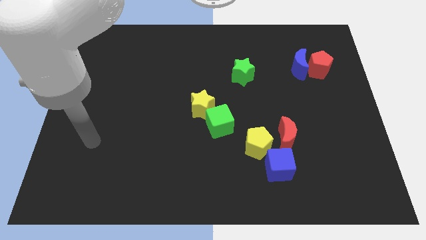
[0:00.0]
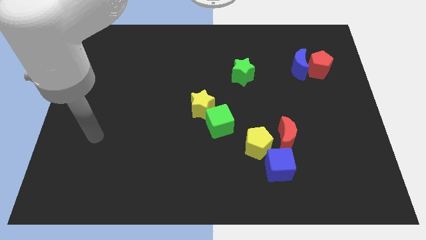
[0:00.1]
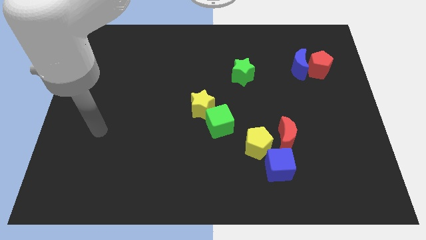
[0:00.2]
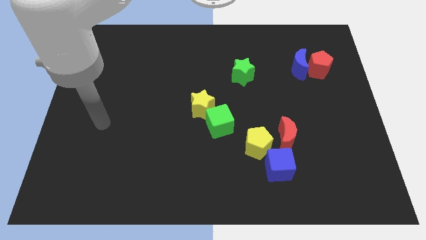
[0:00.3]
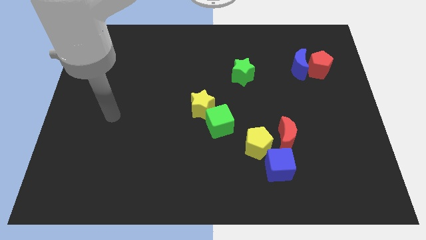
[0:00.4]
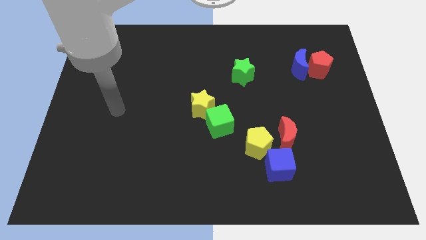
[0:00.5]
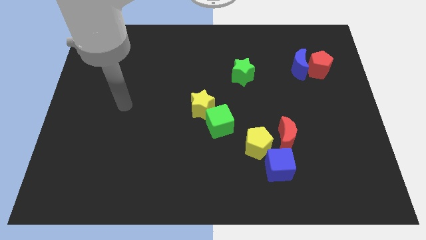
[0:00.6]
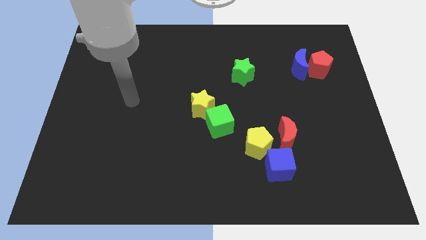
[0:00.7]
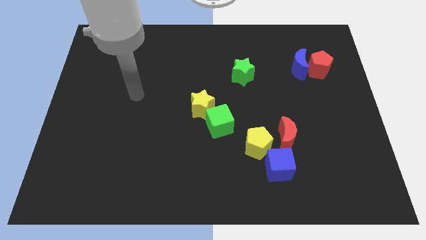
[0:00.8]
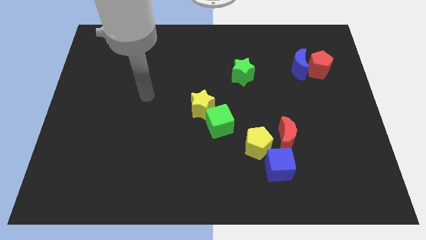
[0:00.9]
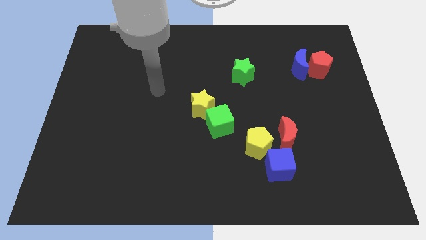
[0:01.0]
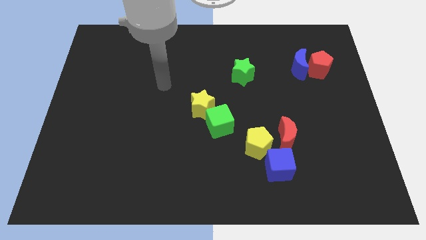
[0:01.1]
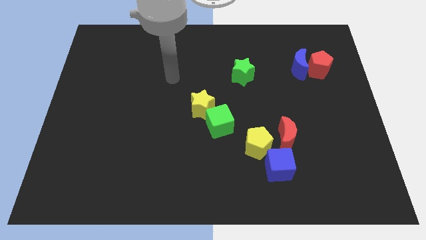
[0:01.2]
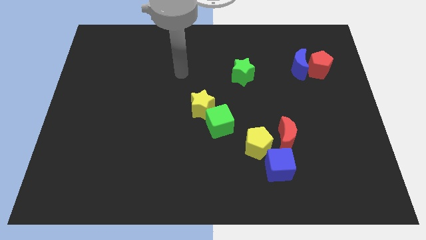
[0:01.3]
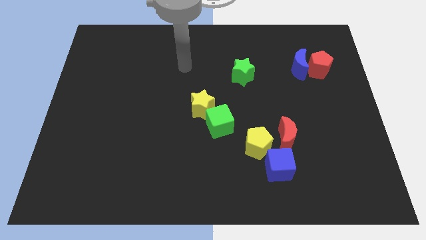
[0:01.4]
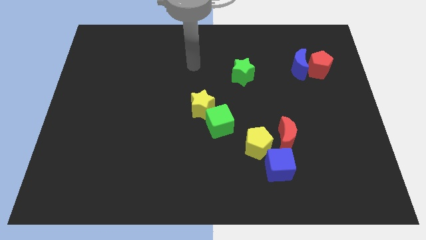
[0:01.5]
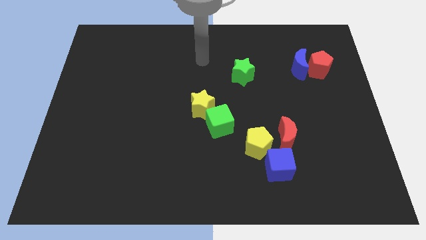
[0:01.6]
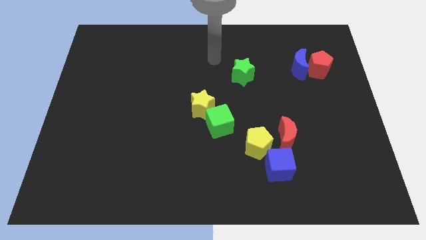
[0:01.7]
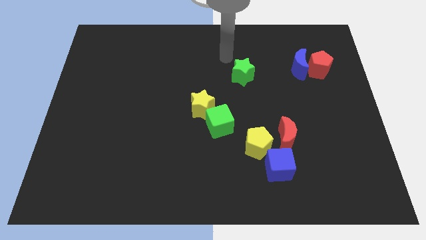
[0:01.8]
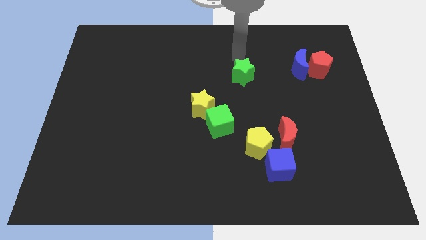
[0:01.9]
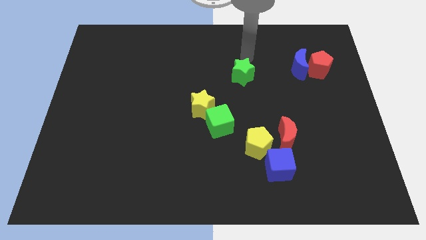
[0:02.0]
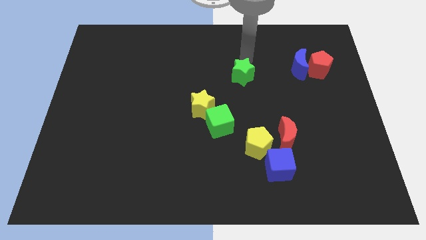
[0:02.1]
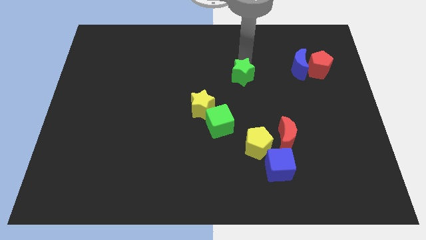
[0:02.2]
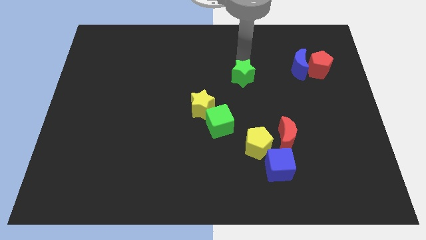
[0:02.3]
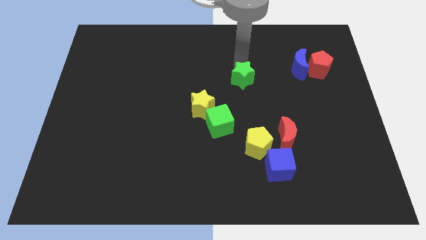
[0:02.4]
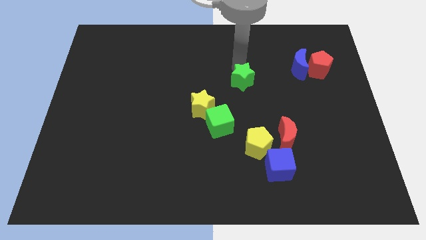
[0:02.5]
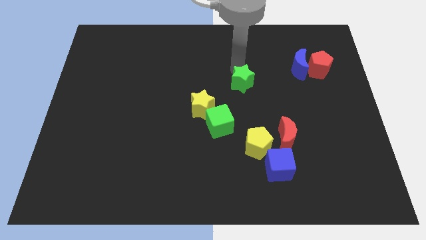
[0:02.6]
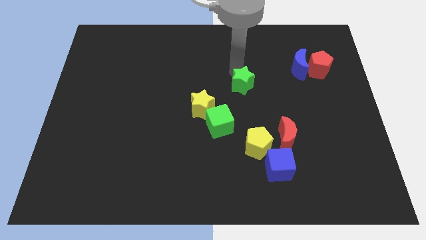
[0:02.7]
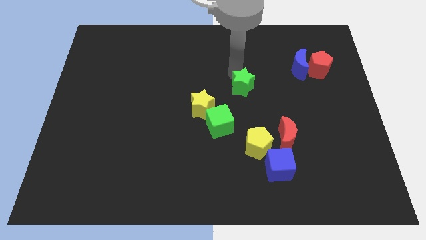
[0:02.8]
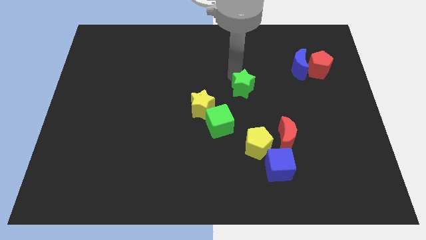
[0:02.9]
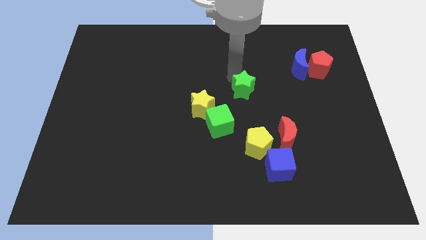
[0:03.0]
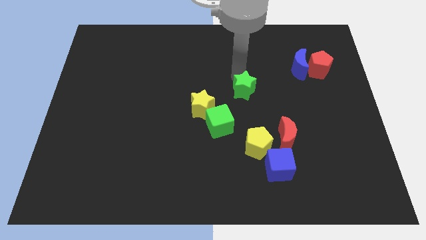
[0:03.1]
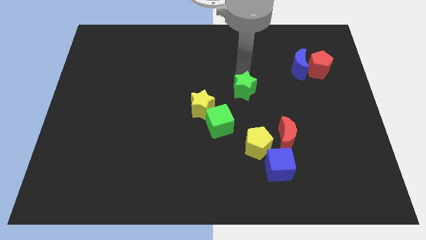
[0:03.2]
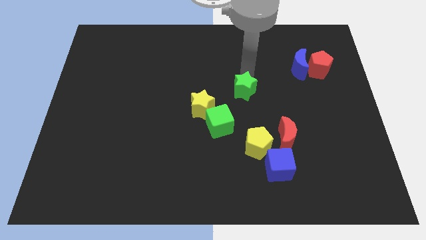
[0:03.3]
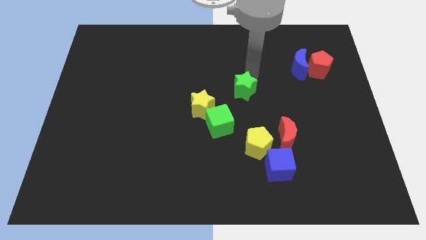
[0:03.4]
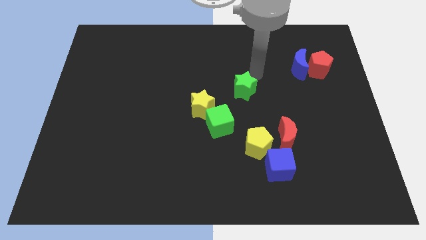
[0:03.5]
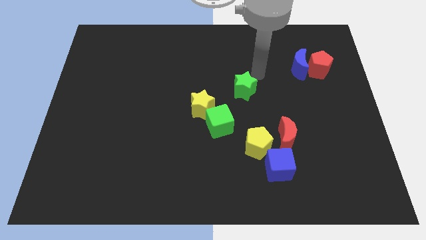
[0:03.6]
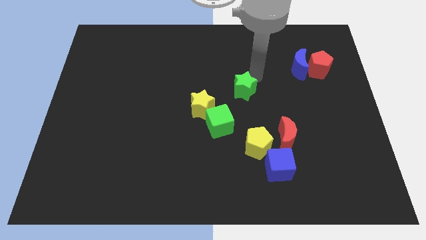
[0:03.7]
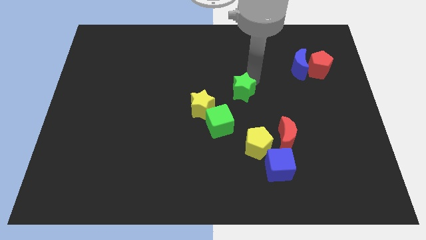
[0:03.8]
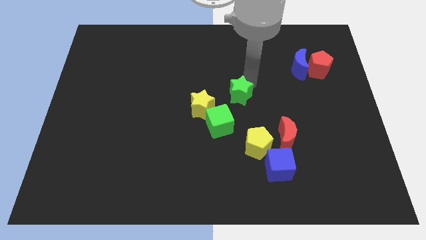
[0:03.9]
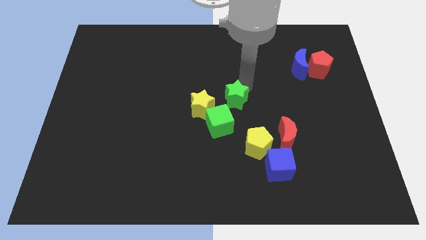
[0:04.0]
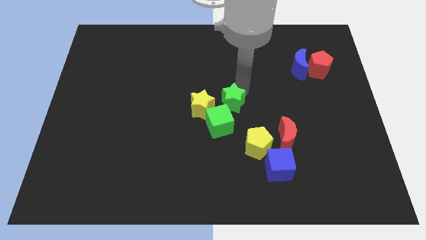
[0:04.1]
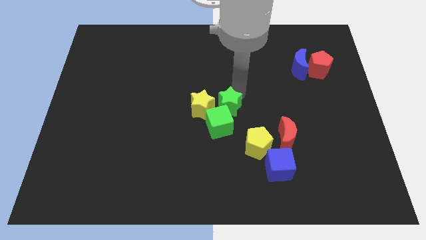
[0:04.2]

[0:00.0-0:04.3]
put the green star towards the green cube

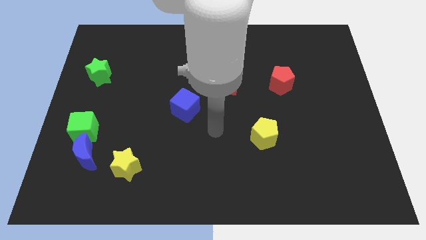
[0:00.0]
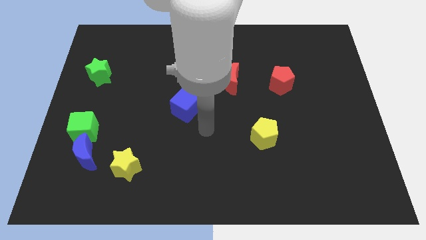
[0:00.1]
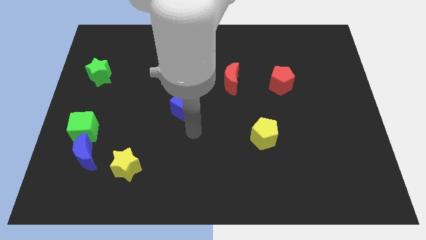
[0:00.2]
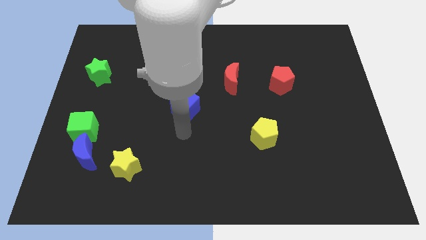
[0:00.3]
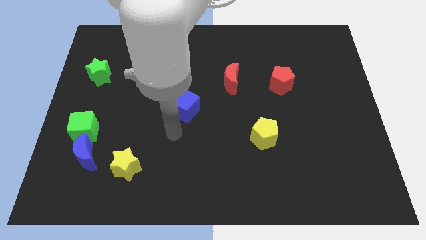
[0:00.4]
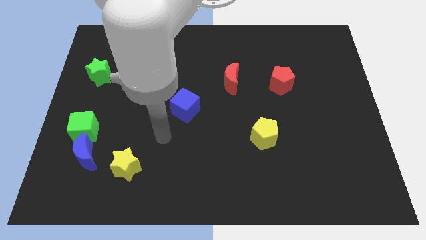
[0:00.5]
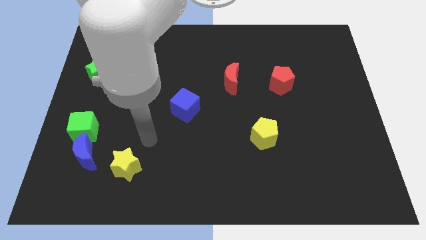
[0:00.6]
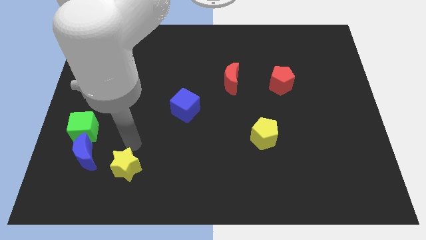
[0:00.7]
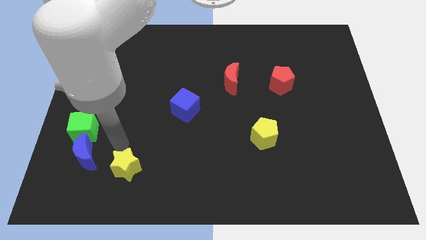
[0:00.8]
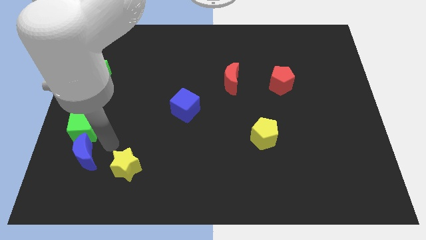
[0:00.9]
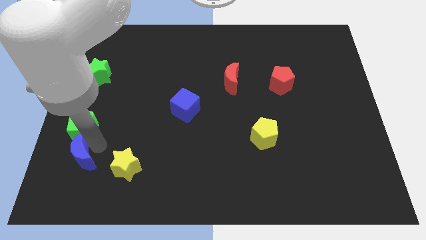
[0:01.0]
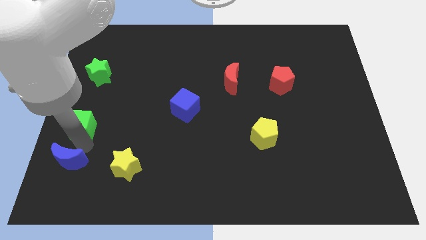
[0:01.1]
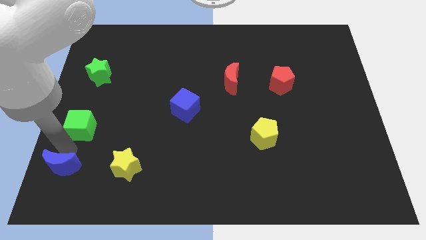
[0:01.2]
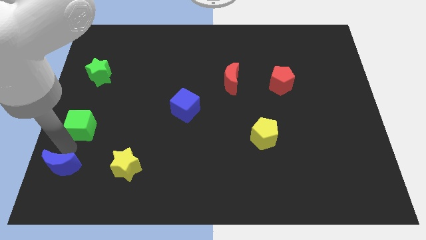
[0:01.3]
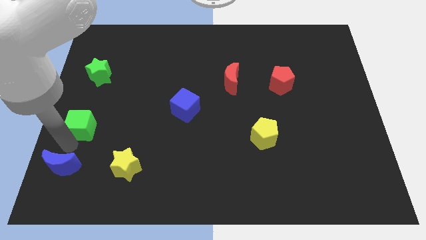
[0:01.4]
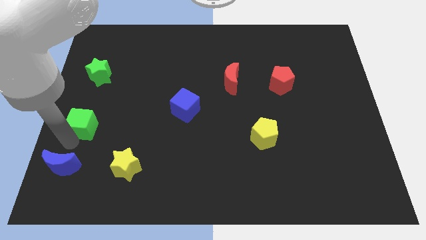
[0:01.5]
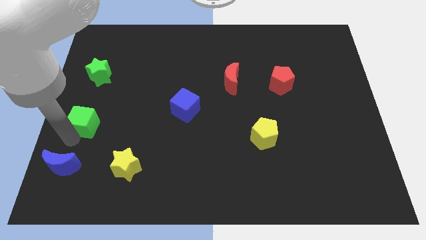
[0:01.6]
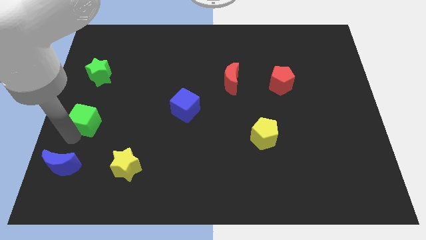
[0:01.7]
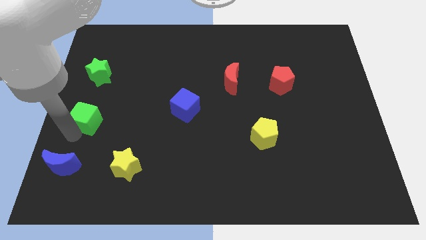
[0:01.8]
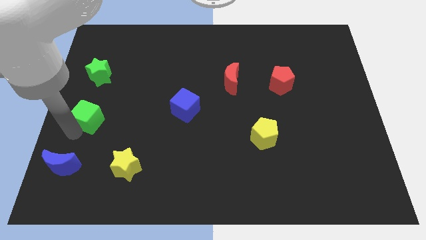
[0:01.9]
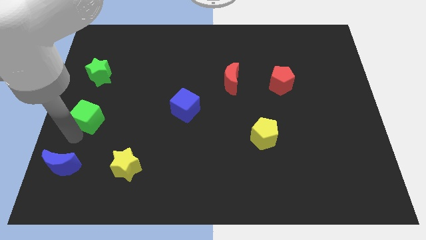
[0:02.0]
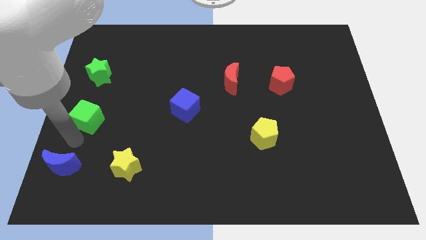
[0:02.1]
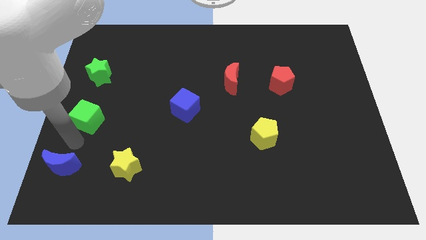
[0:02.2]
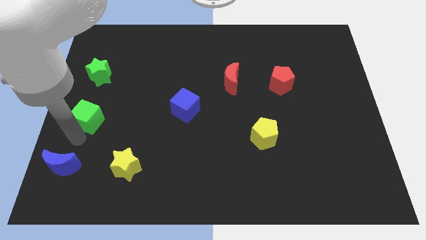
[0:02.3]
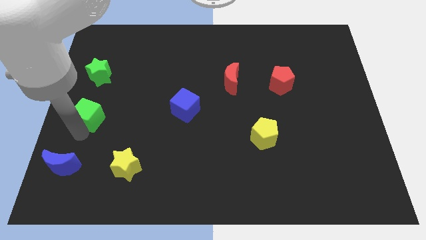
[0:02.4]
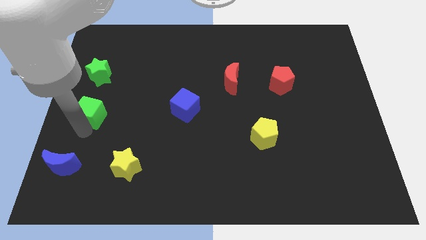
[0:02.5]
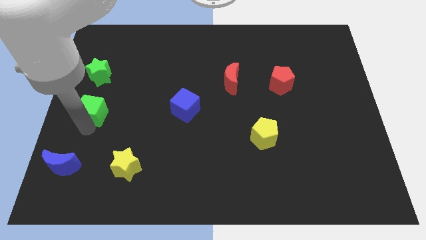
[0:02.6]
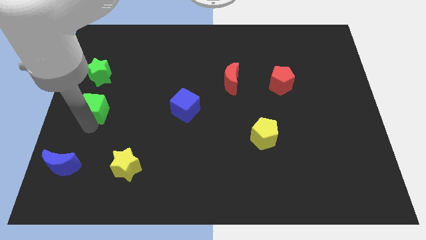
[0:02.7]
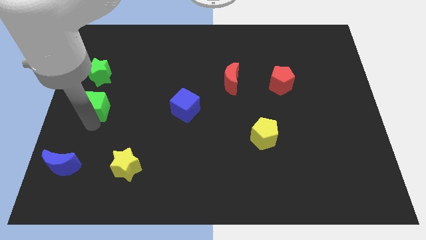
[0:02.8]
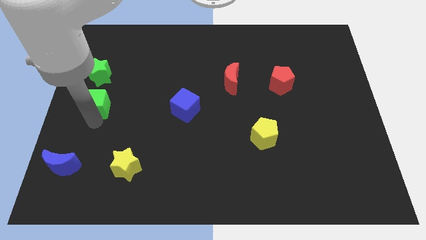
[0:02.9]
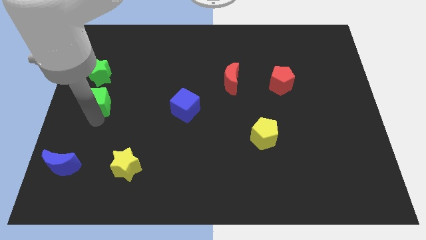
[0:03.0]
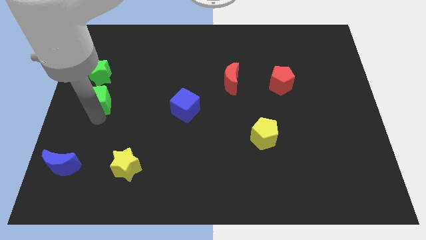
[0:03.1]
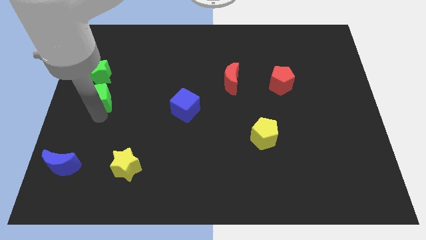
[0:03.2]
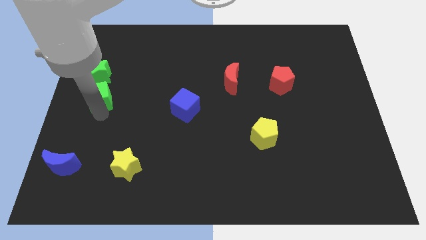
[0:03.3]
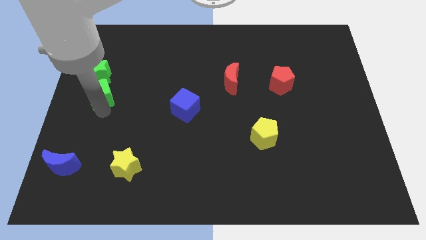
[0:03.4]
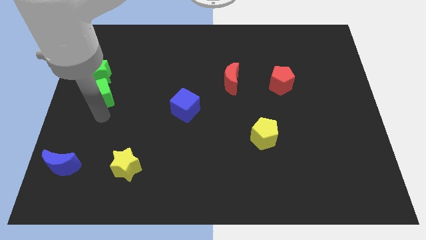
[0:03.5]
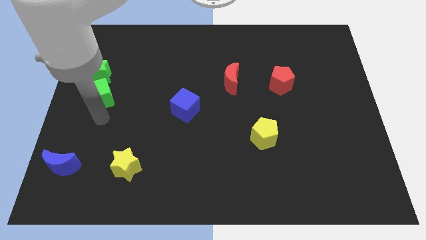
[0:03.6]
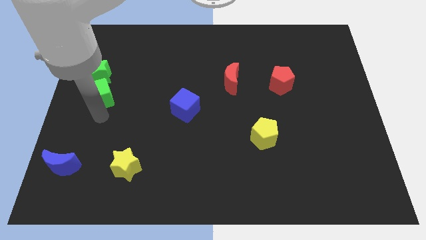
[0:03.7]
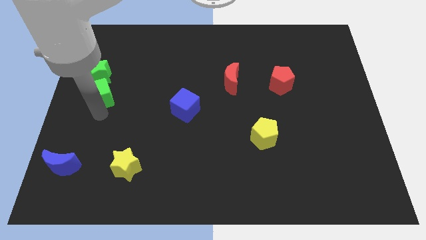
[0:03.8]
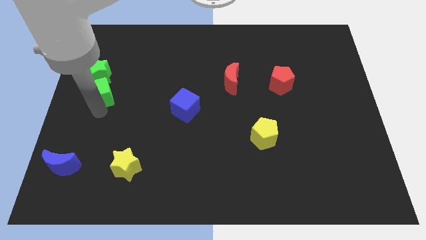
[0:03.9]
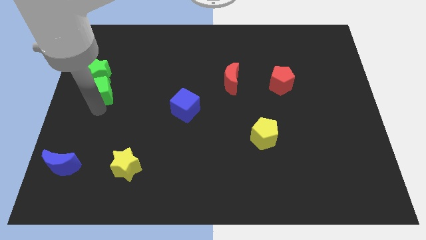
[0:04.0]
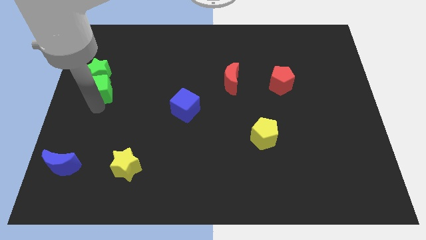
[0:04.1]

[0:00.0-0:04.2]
push the green cube next to the green star
